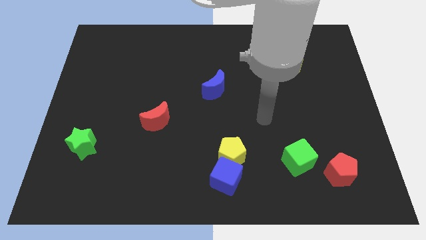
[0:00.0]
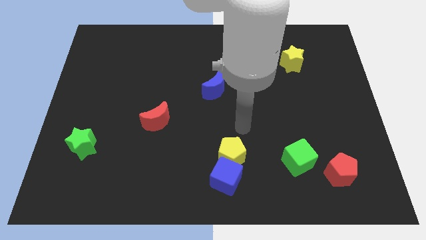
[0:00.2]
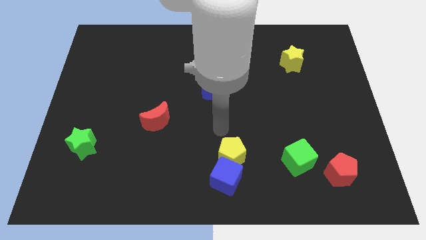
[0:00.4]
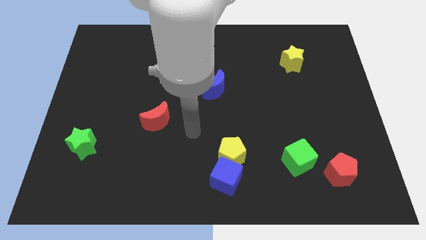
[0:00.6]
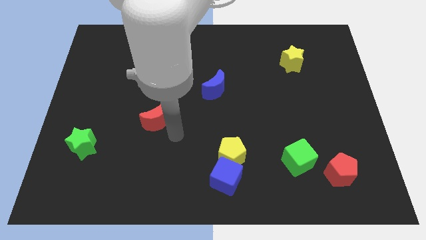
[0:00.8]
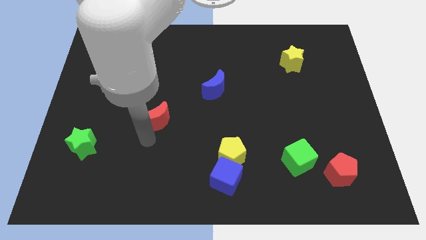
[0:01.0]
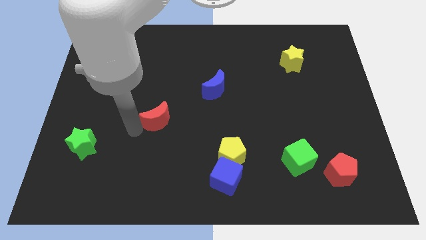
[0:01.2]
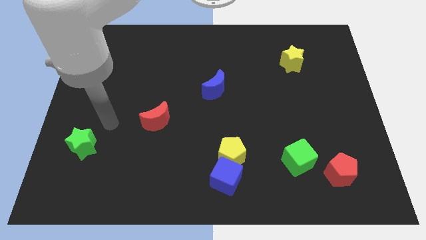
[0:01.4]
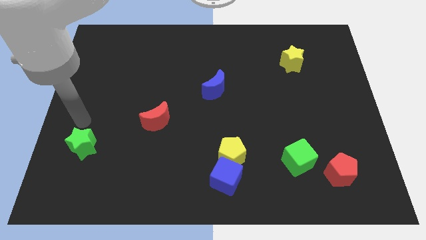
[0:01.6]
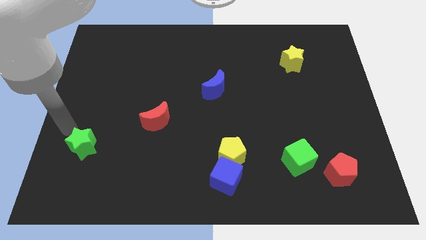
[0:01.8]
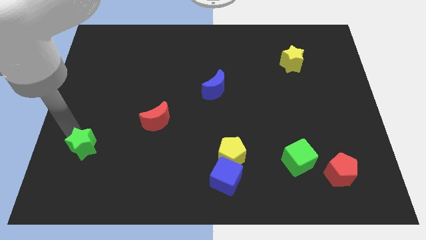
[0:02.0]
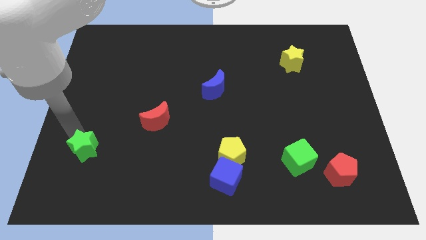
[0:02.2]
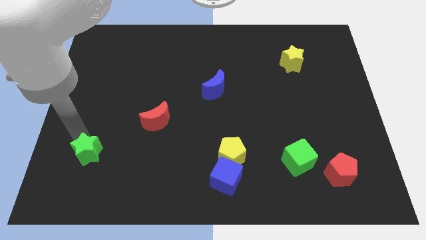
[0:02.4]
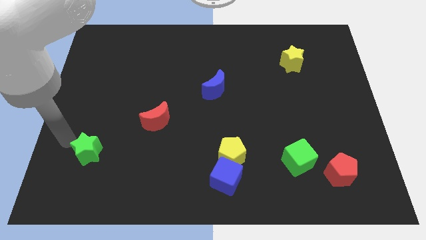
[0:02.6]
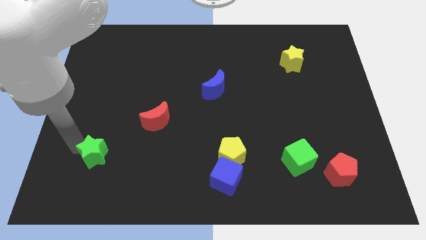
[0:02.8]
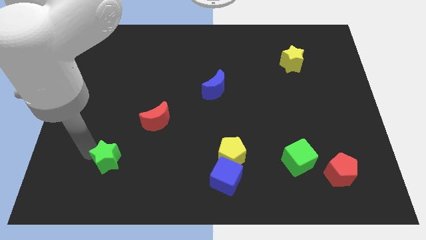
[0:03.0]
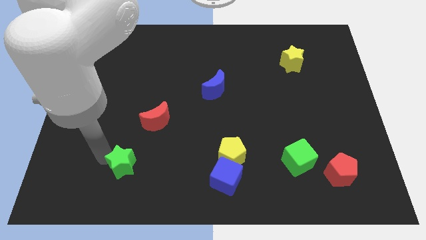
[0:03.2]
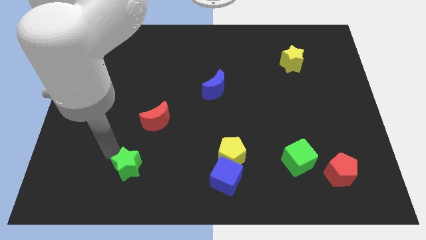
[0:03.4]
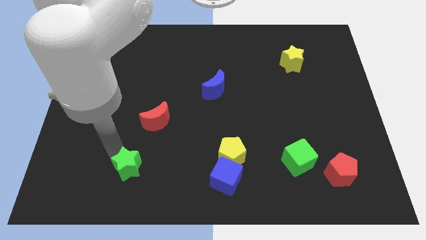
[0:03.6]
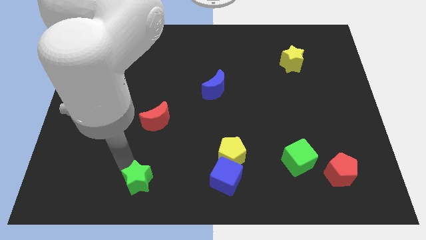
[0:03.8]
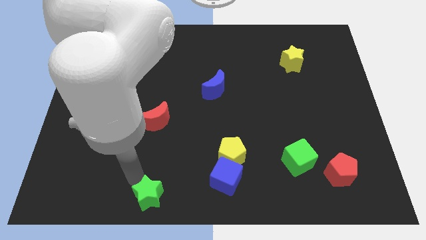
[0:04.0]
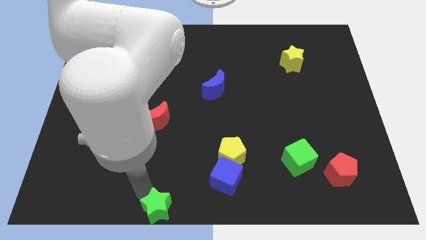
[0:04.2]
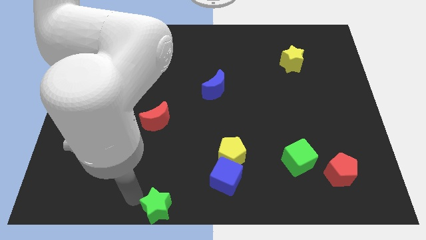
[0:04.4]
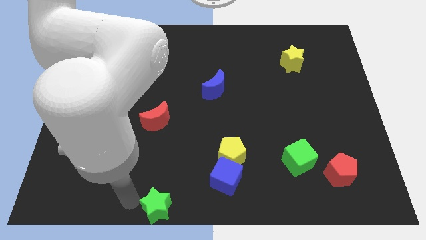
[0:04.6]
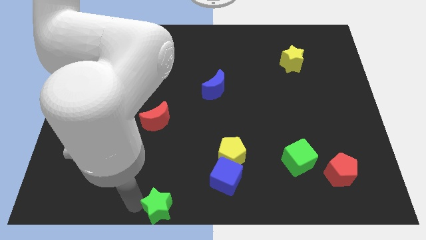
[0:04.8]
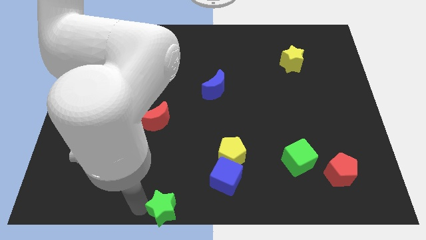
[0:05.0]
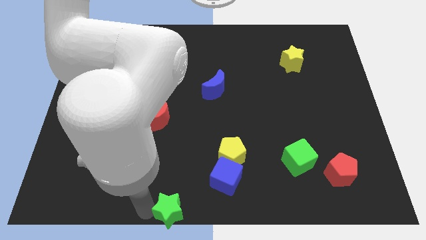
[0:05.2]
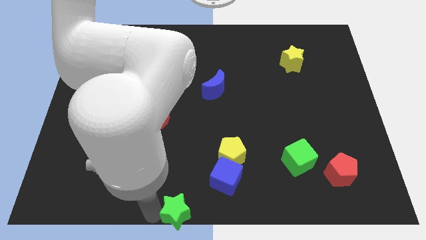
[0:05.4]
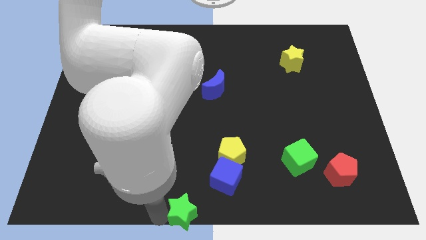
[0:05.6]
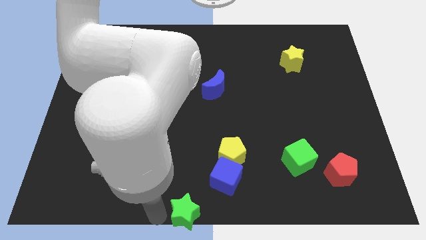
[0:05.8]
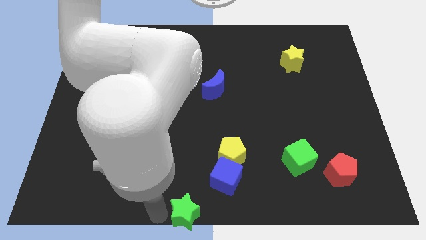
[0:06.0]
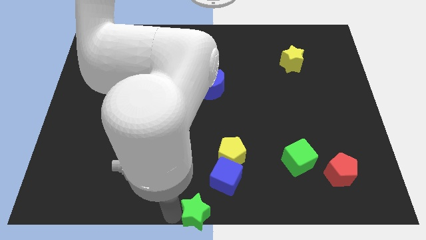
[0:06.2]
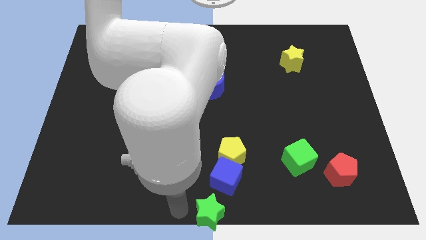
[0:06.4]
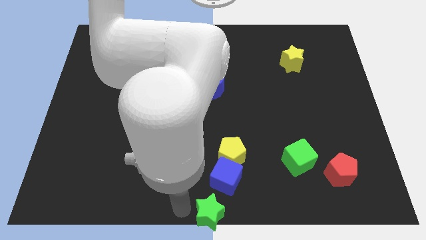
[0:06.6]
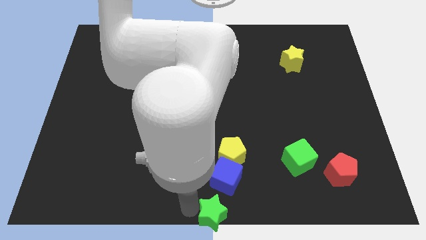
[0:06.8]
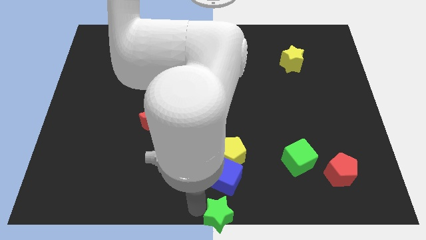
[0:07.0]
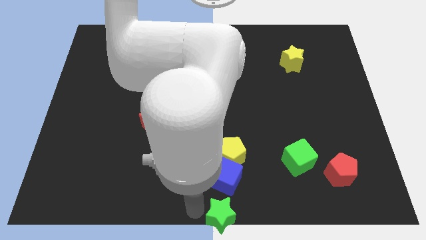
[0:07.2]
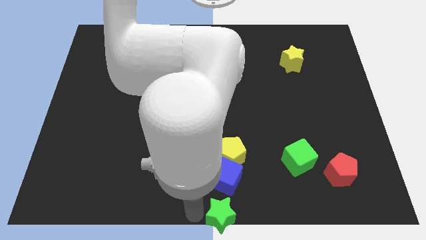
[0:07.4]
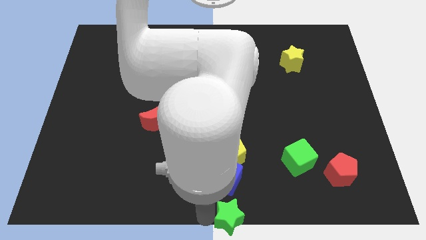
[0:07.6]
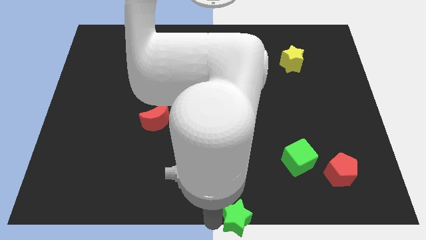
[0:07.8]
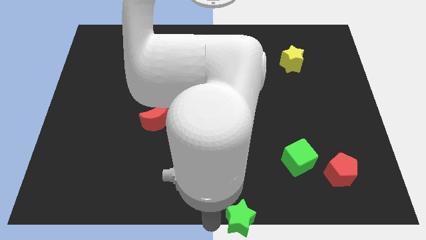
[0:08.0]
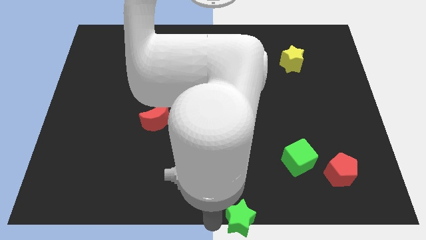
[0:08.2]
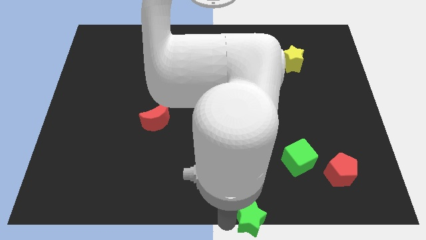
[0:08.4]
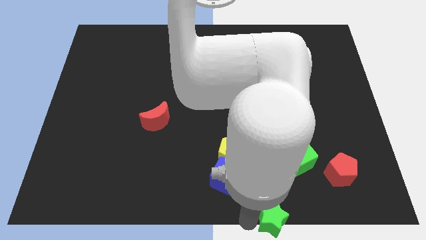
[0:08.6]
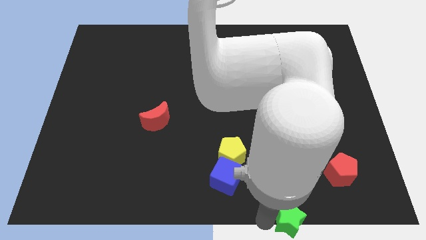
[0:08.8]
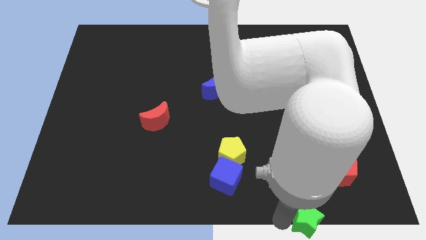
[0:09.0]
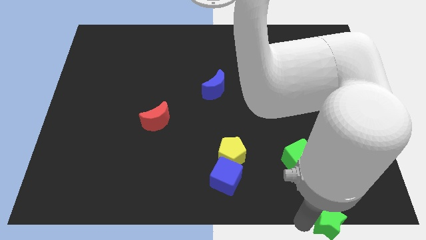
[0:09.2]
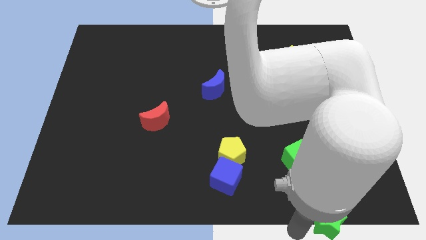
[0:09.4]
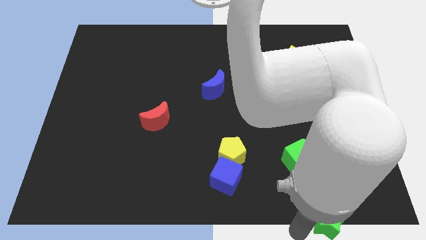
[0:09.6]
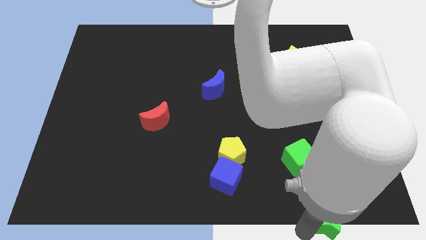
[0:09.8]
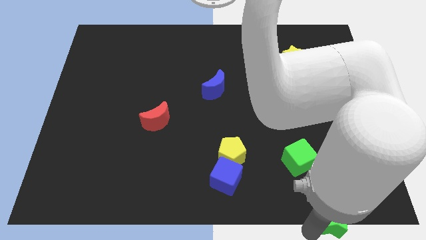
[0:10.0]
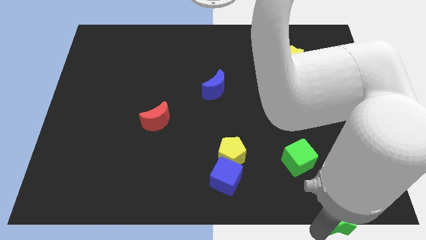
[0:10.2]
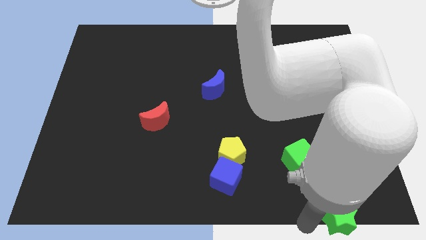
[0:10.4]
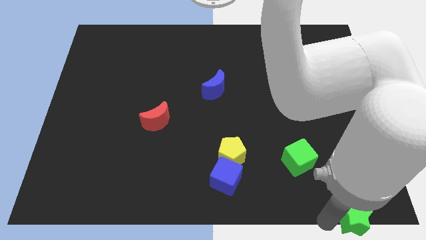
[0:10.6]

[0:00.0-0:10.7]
move the green star to the bottom right of the board
